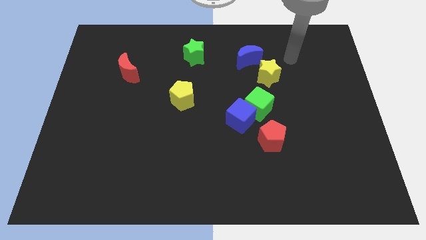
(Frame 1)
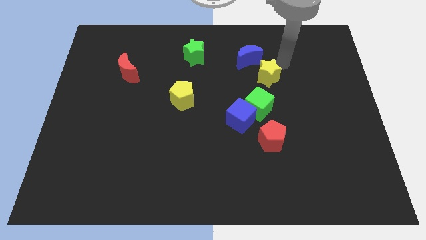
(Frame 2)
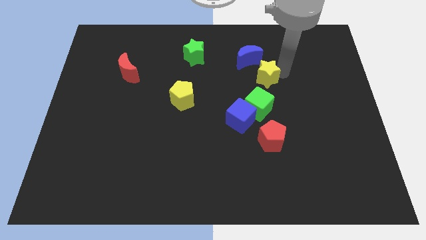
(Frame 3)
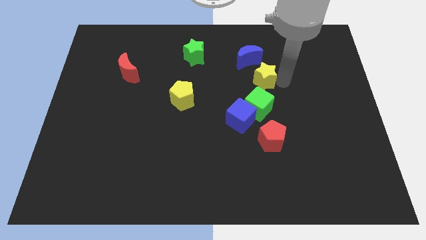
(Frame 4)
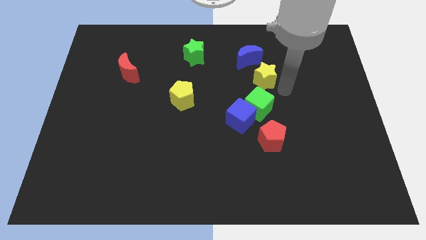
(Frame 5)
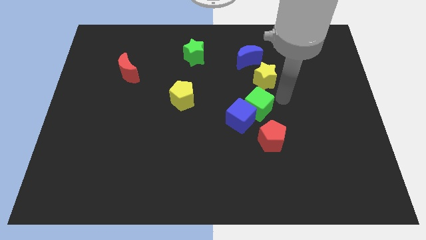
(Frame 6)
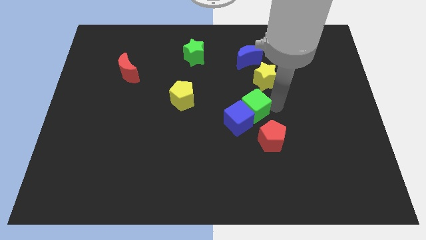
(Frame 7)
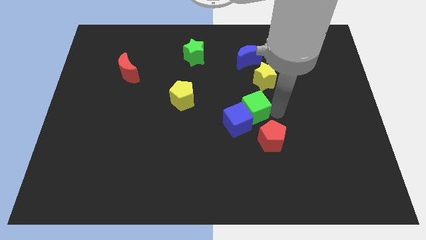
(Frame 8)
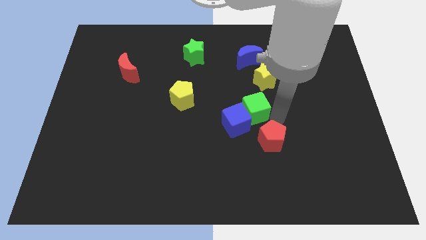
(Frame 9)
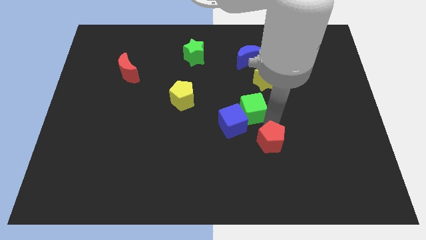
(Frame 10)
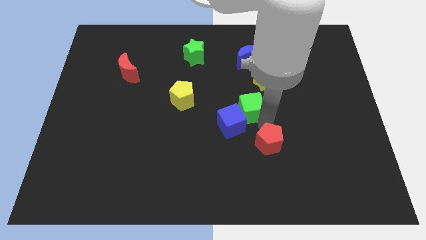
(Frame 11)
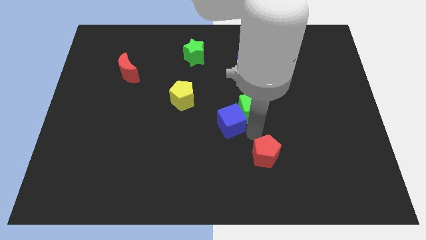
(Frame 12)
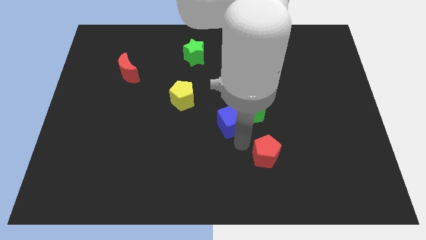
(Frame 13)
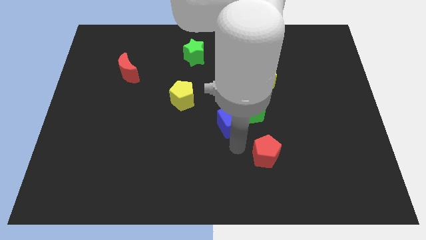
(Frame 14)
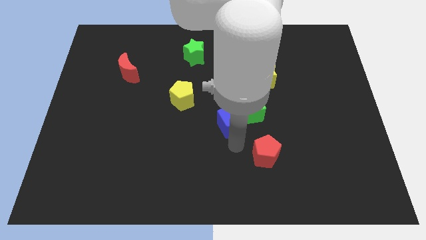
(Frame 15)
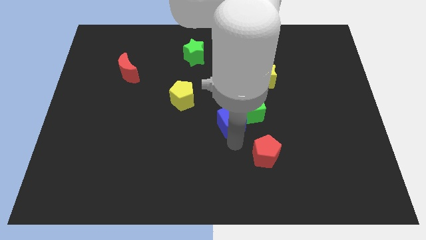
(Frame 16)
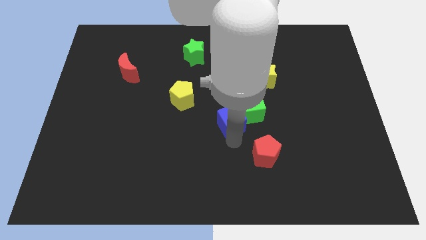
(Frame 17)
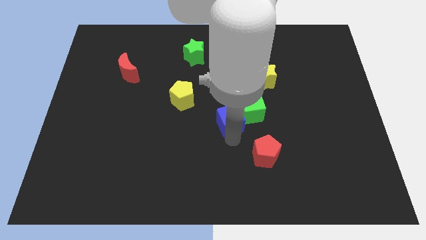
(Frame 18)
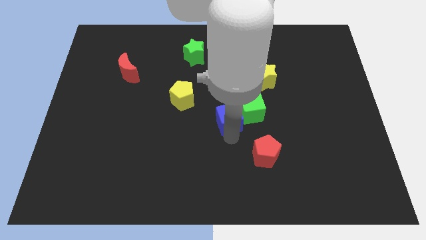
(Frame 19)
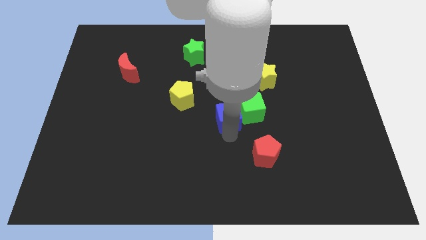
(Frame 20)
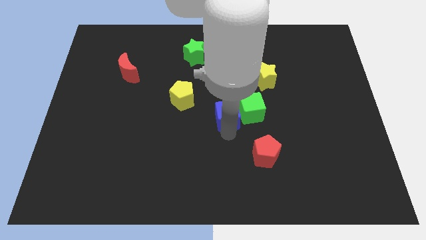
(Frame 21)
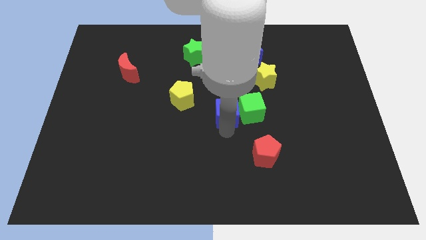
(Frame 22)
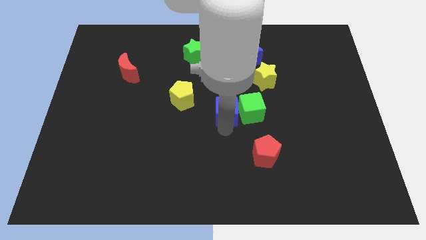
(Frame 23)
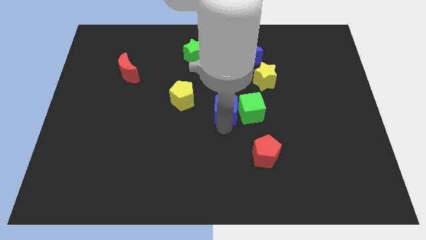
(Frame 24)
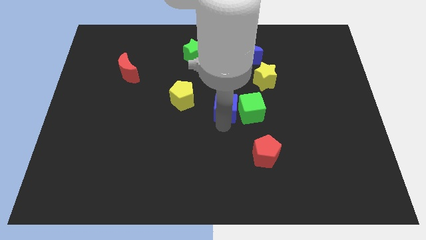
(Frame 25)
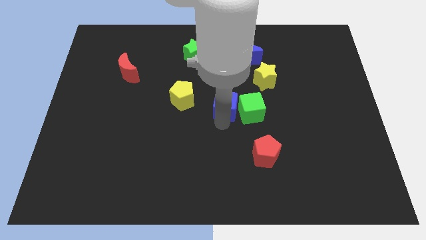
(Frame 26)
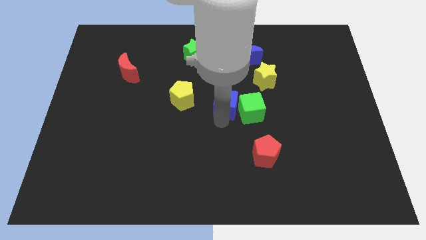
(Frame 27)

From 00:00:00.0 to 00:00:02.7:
move the blue cube away from the green cube and red pentagon

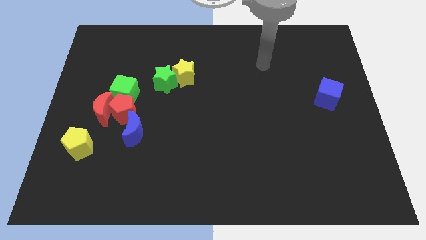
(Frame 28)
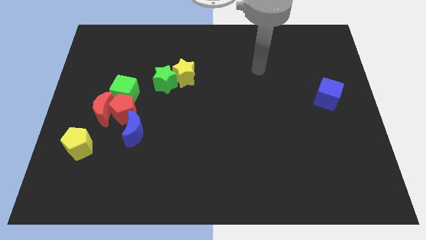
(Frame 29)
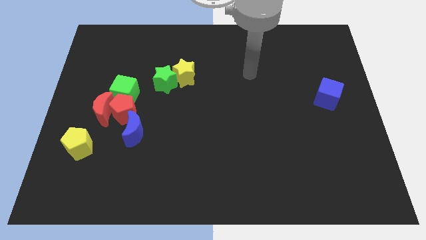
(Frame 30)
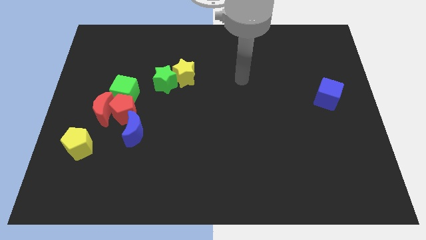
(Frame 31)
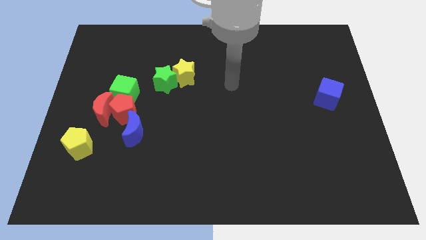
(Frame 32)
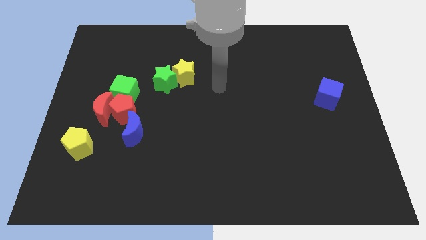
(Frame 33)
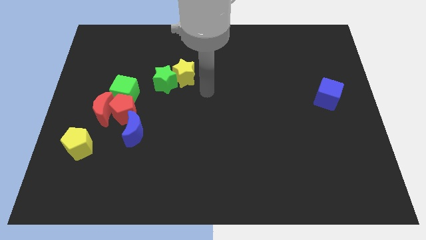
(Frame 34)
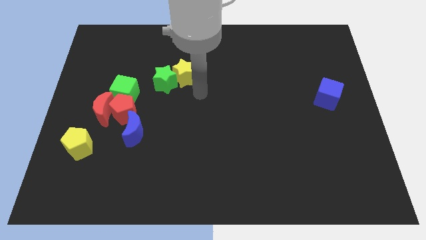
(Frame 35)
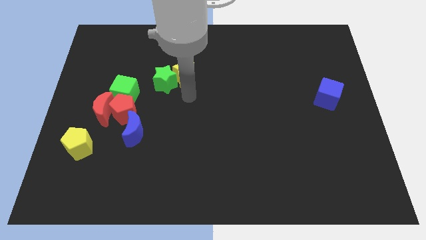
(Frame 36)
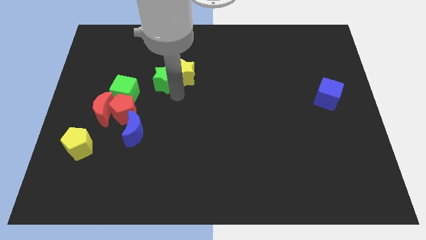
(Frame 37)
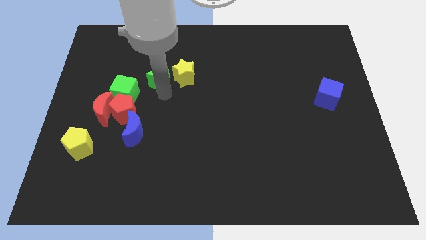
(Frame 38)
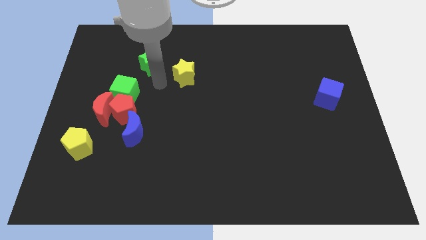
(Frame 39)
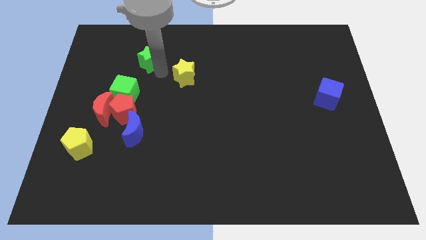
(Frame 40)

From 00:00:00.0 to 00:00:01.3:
pull the yellow star apart from the green star

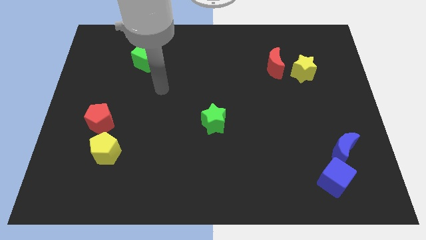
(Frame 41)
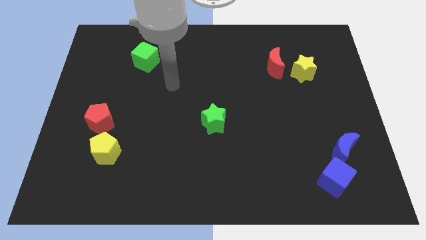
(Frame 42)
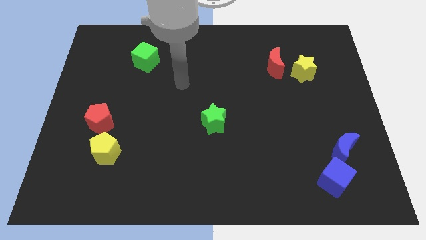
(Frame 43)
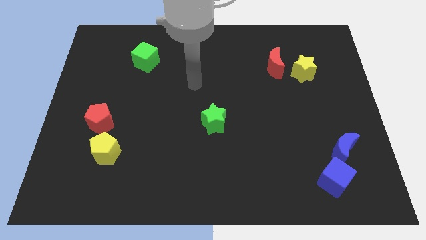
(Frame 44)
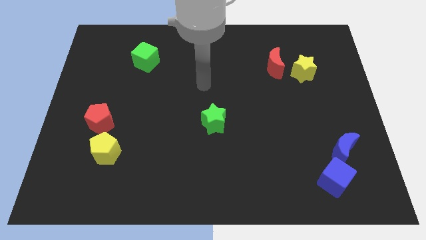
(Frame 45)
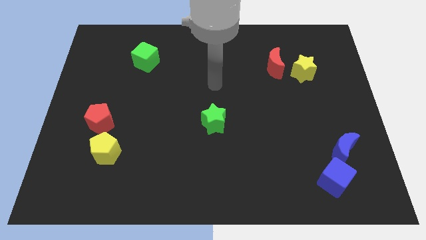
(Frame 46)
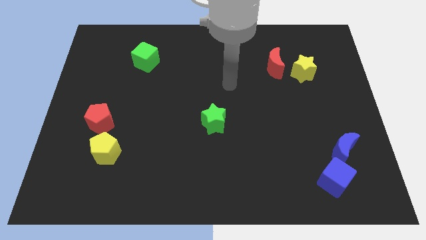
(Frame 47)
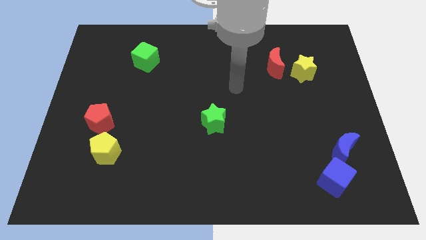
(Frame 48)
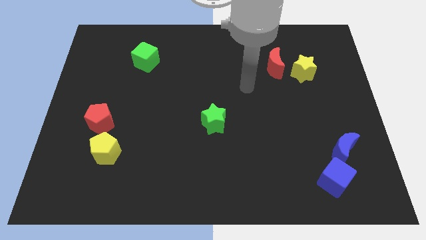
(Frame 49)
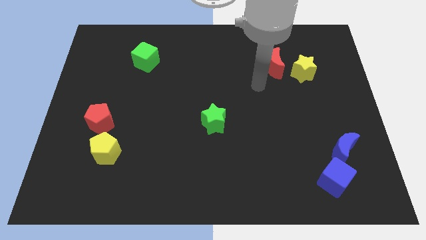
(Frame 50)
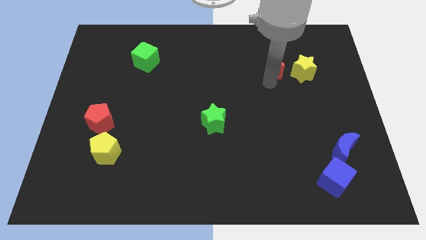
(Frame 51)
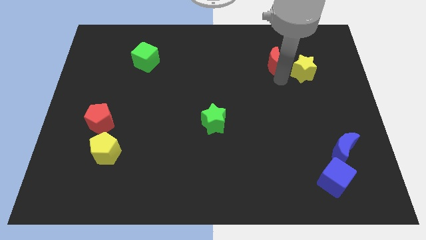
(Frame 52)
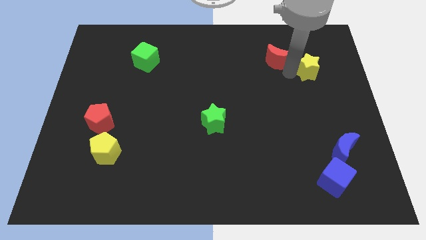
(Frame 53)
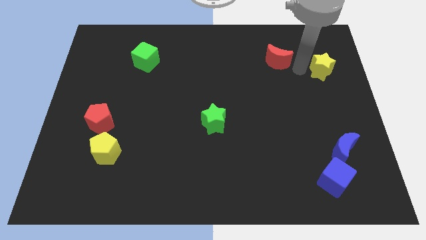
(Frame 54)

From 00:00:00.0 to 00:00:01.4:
separate the red moon from the yellow star

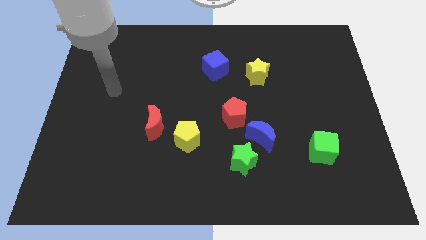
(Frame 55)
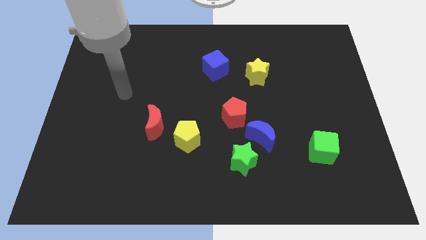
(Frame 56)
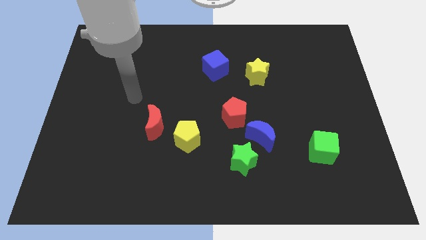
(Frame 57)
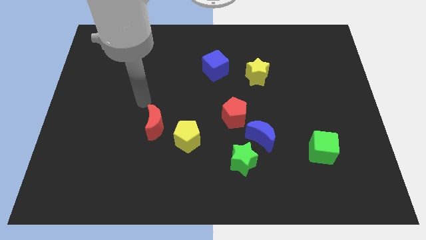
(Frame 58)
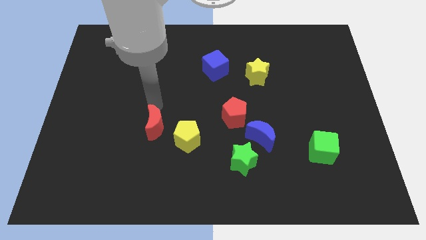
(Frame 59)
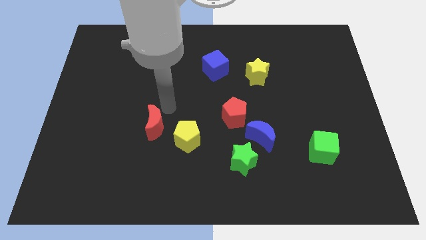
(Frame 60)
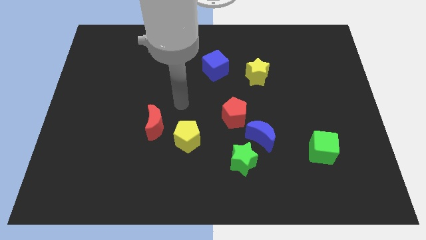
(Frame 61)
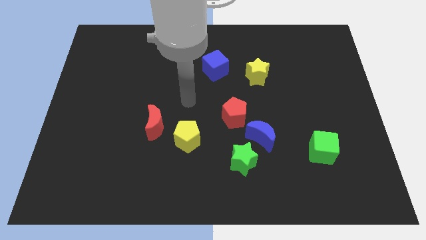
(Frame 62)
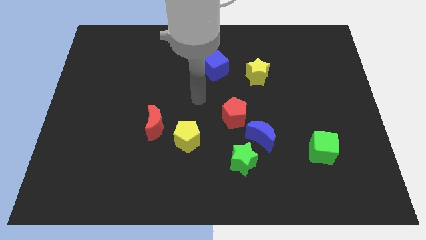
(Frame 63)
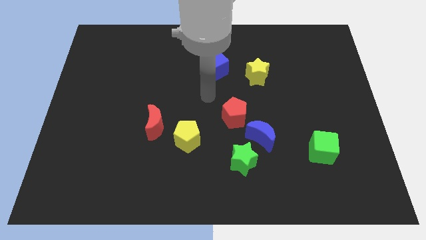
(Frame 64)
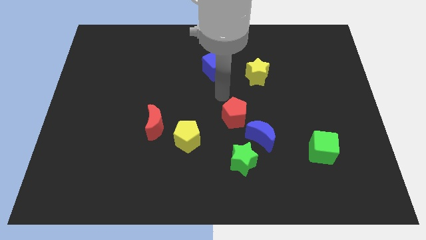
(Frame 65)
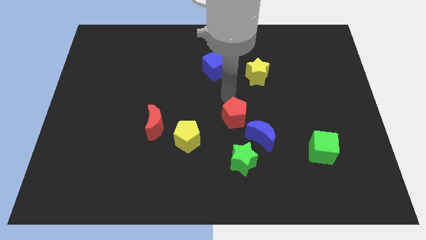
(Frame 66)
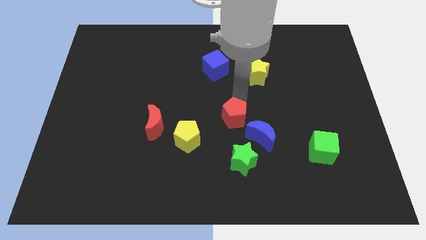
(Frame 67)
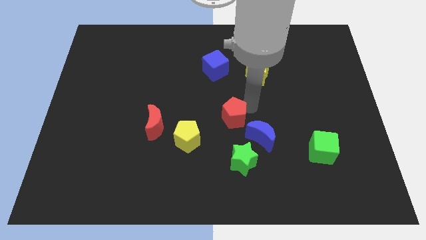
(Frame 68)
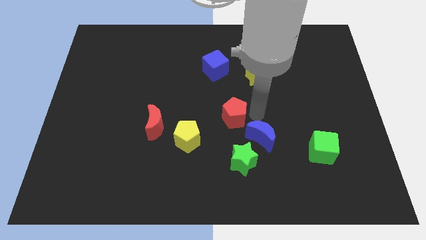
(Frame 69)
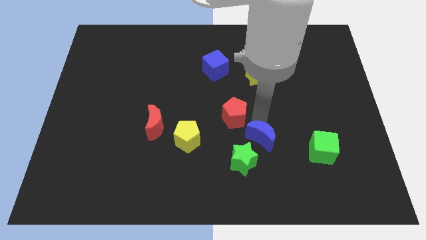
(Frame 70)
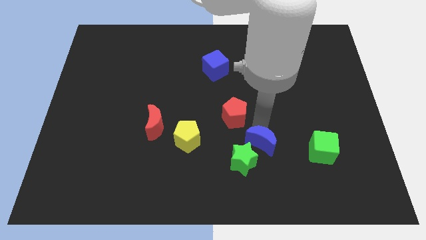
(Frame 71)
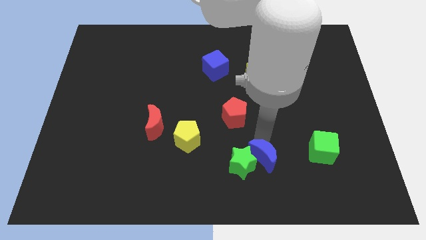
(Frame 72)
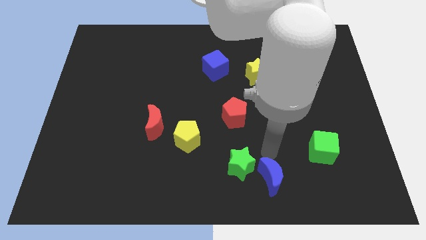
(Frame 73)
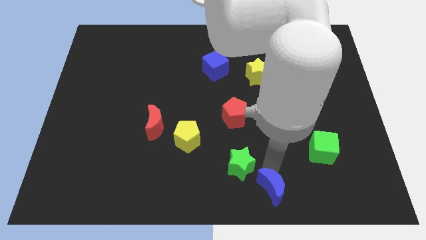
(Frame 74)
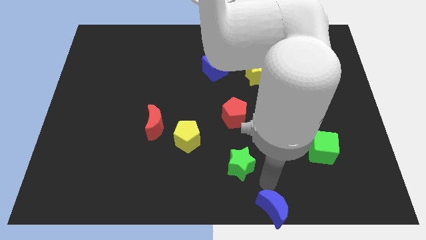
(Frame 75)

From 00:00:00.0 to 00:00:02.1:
move the green star away from the blue moon

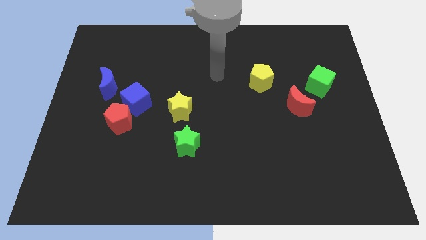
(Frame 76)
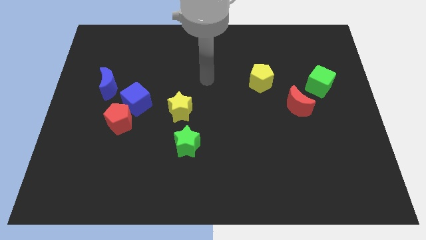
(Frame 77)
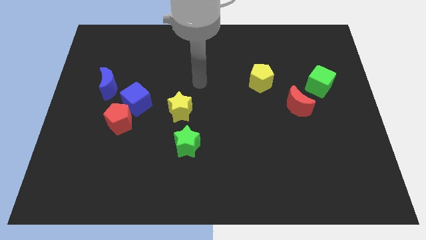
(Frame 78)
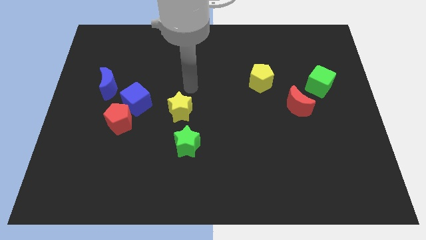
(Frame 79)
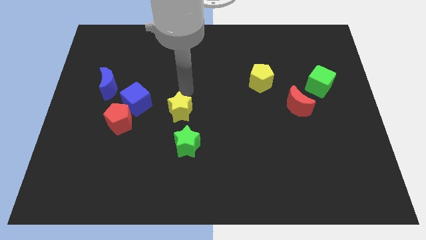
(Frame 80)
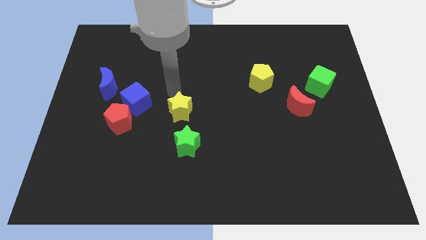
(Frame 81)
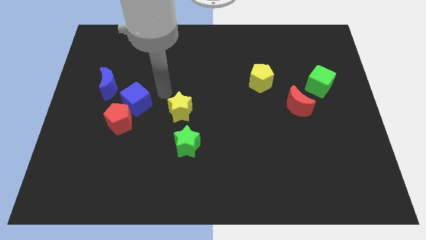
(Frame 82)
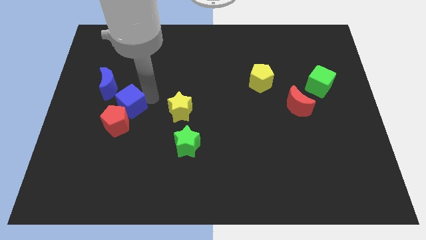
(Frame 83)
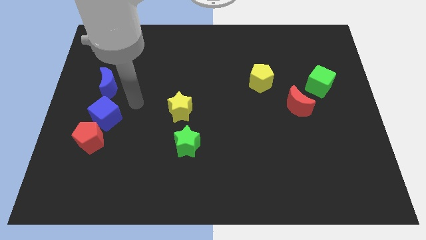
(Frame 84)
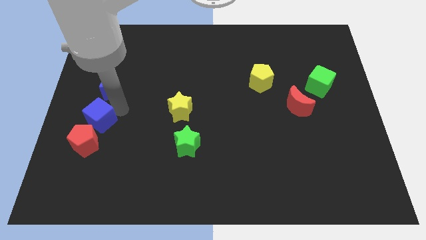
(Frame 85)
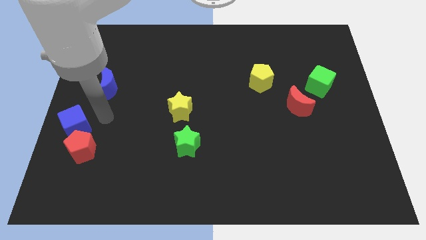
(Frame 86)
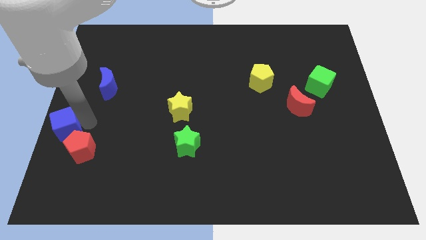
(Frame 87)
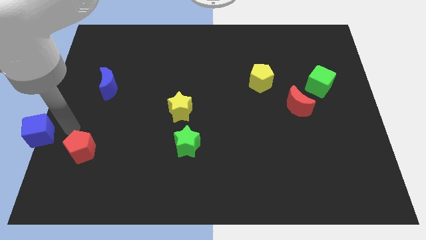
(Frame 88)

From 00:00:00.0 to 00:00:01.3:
move the red pentagon away from the blue cube

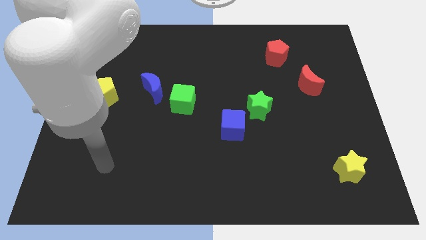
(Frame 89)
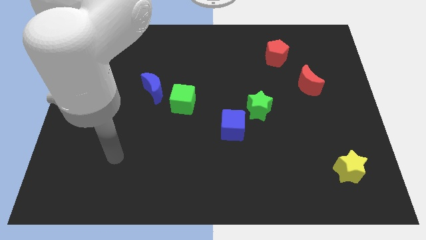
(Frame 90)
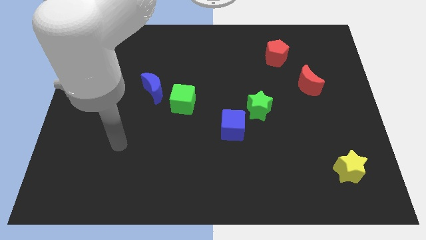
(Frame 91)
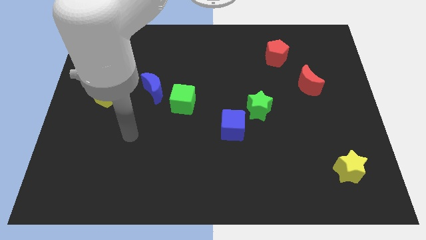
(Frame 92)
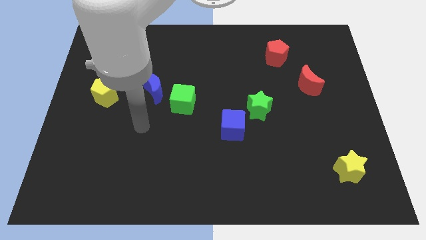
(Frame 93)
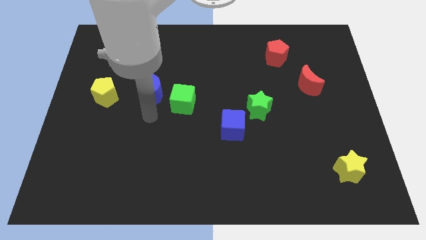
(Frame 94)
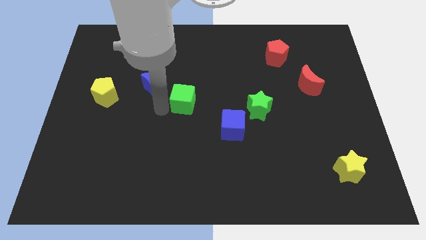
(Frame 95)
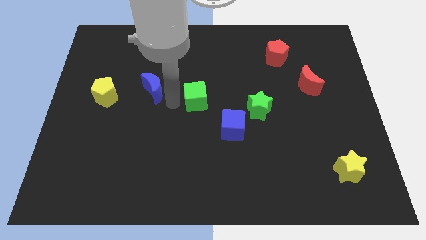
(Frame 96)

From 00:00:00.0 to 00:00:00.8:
pull the blue moon apart from the green cube
